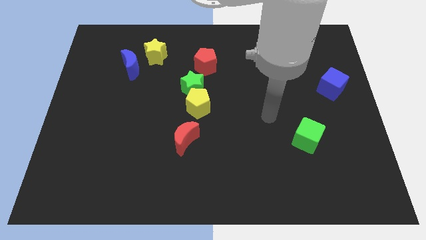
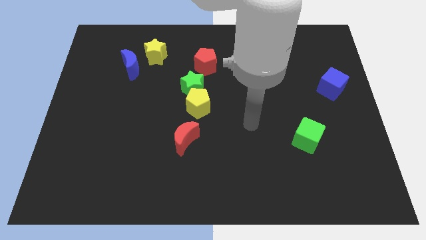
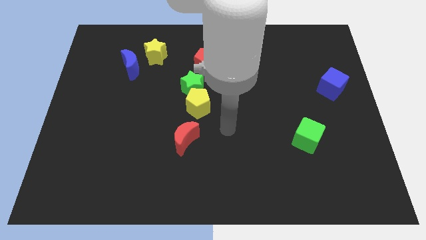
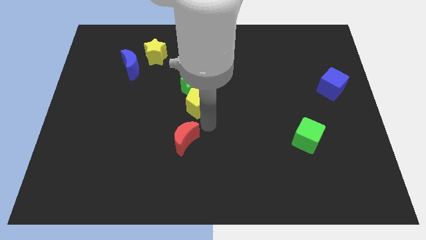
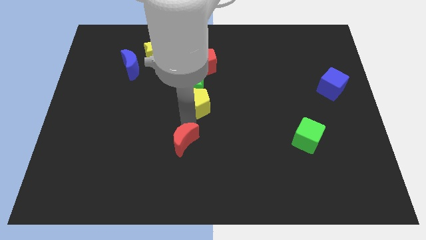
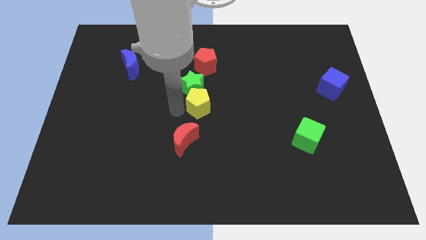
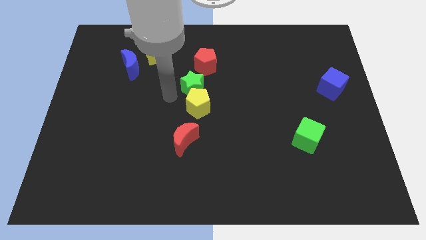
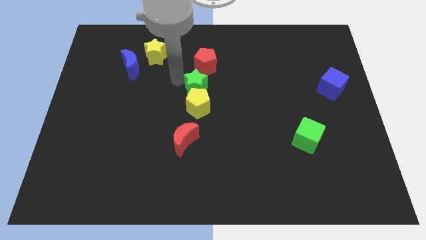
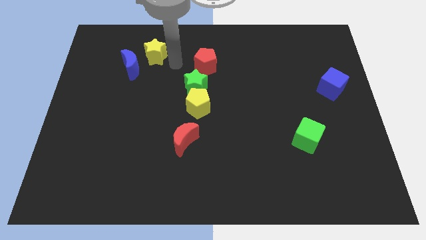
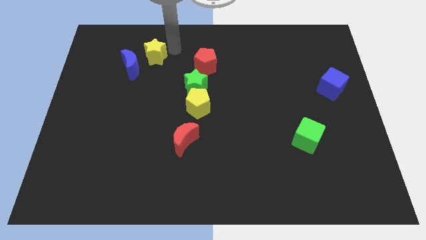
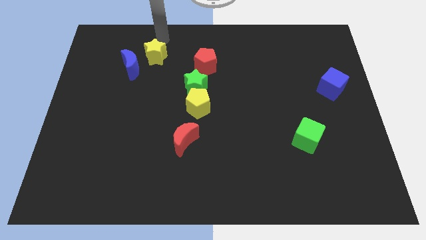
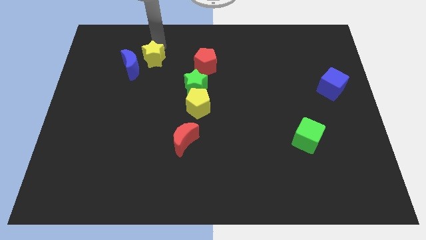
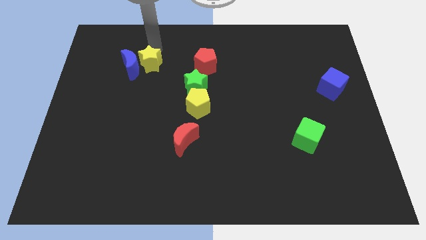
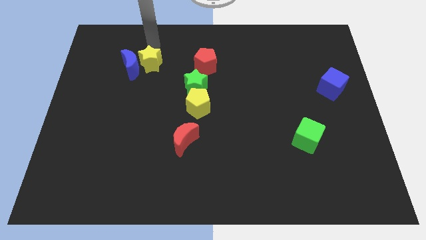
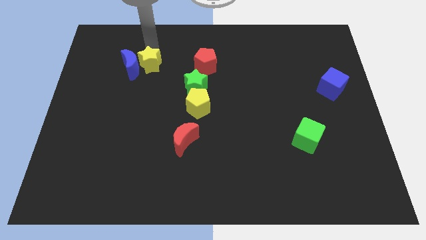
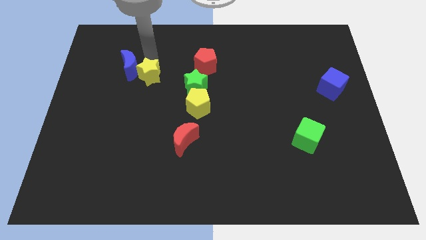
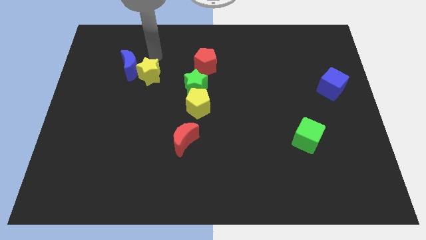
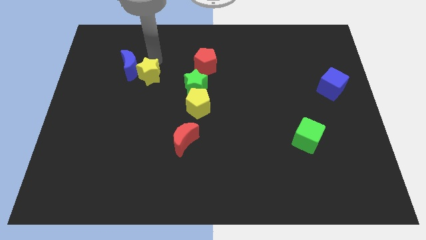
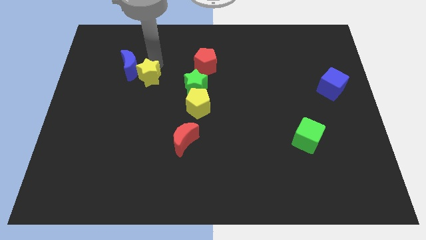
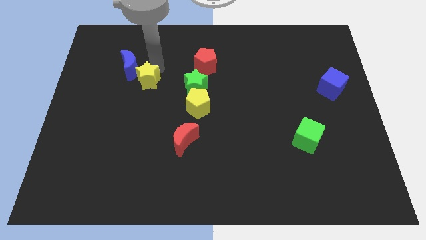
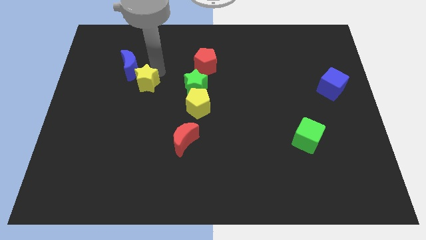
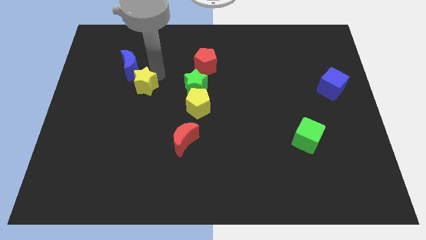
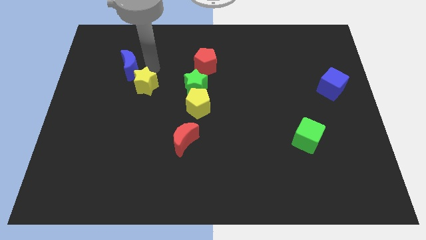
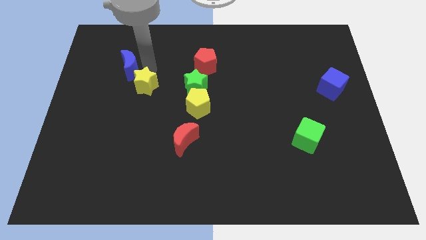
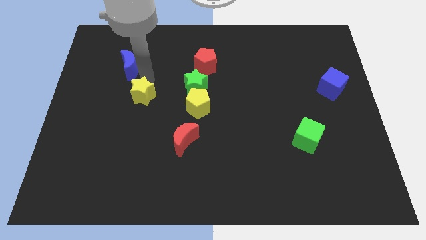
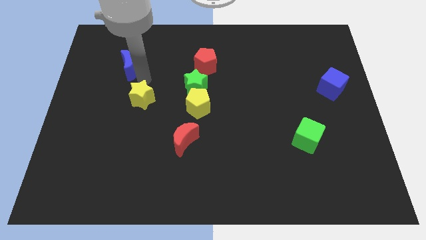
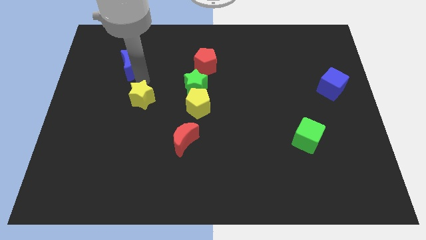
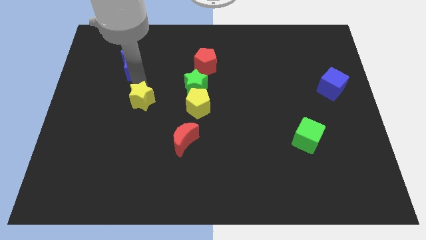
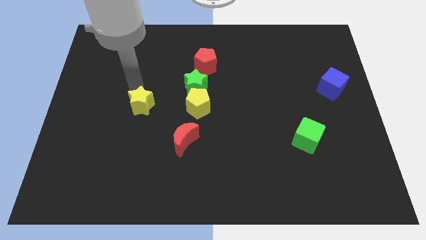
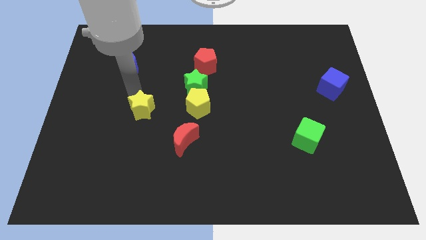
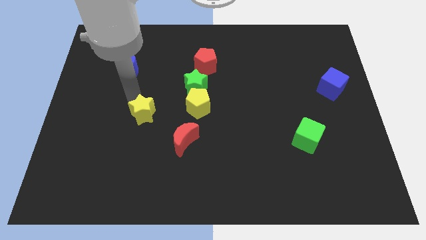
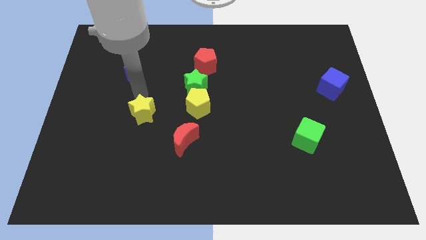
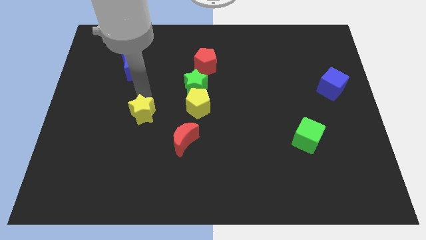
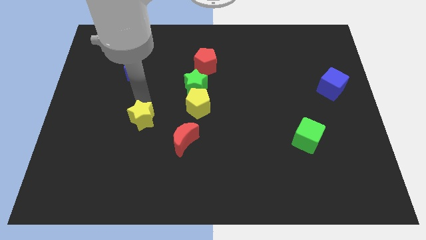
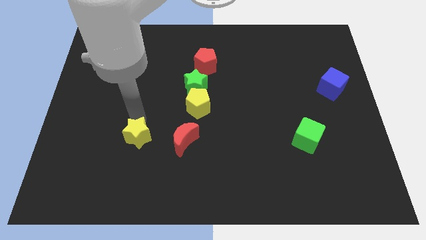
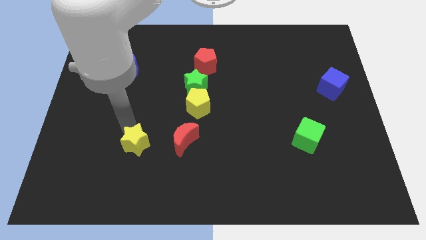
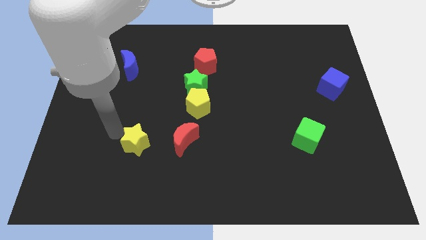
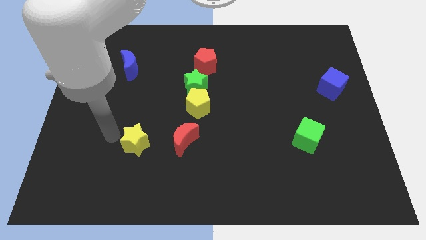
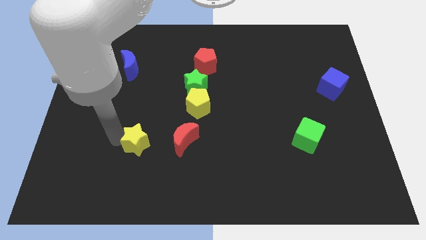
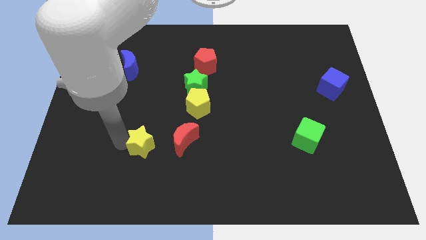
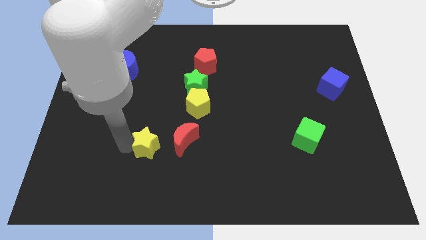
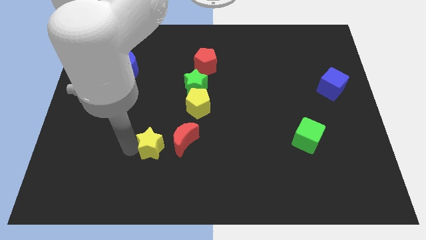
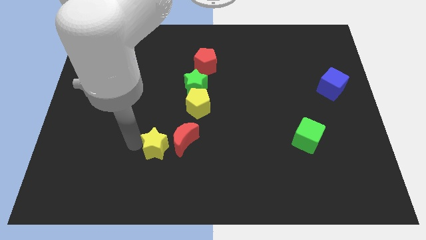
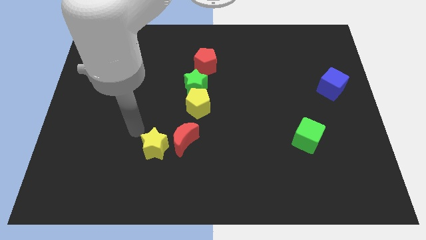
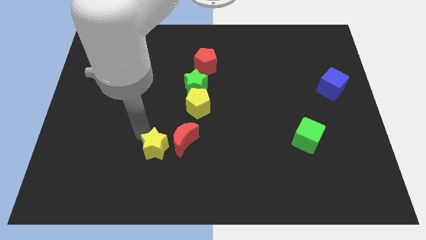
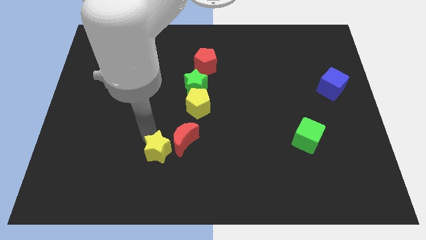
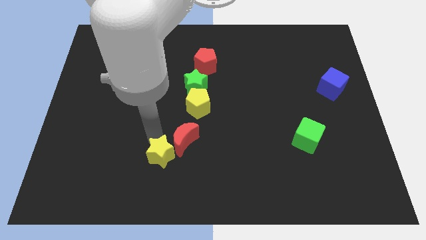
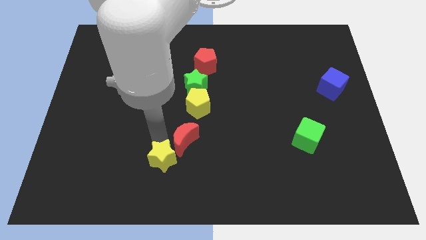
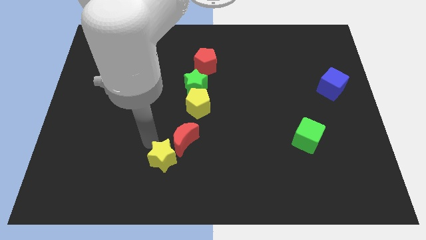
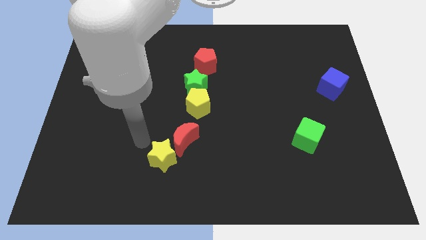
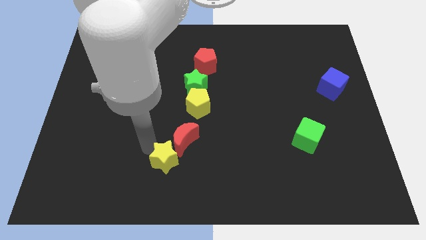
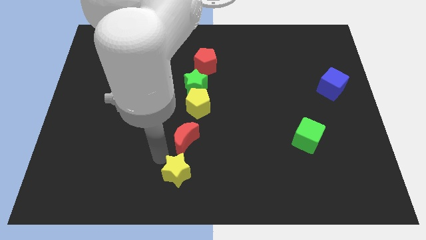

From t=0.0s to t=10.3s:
slide the yellow star to the bottom side

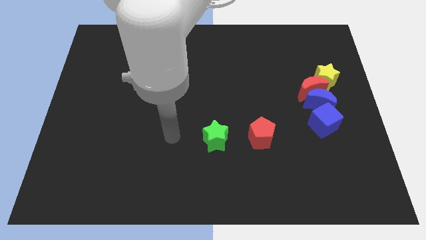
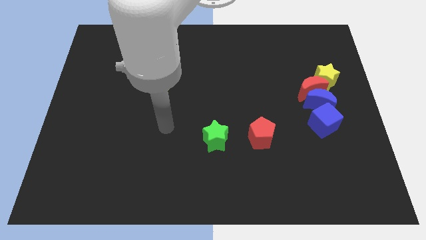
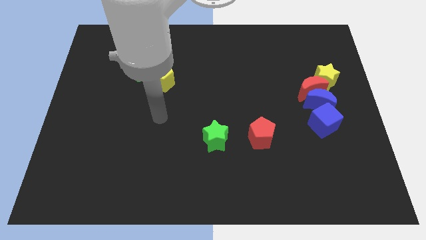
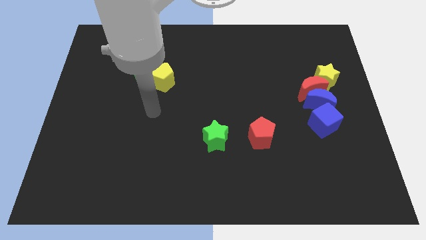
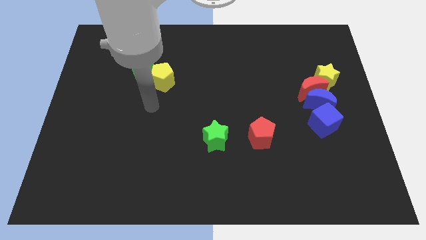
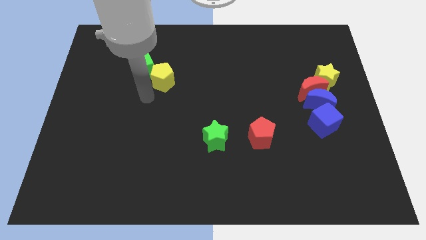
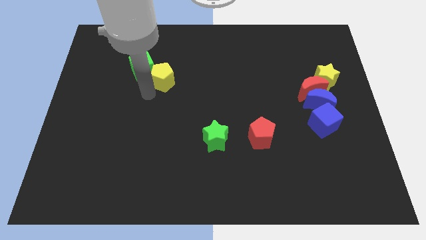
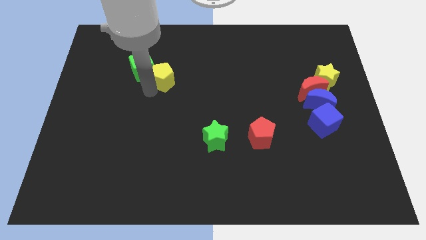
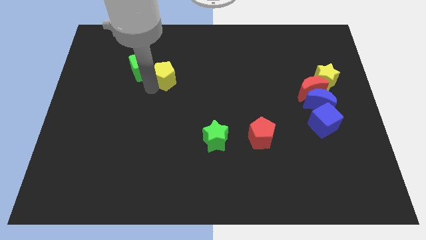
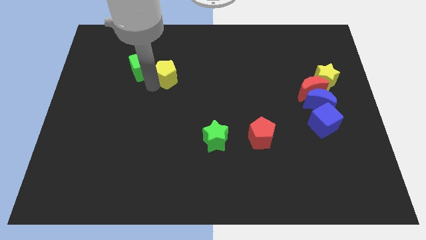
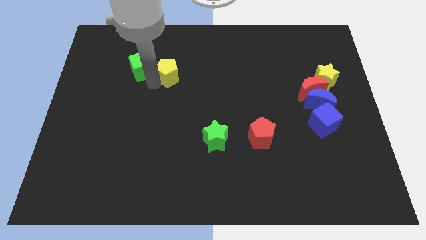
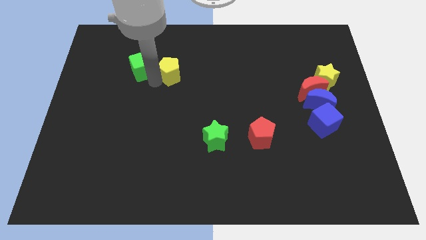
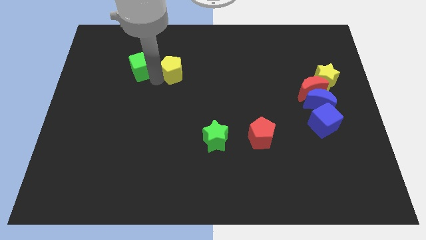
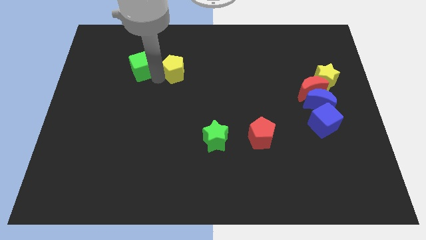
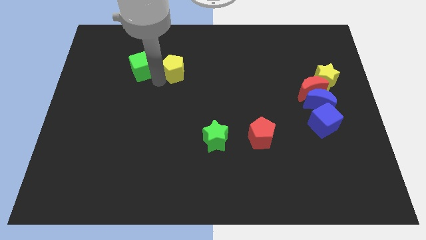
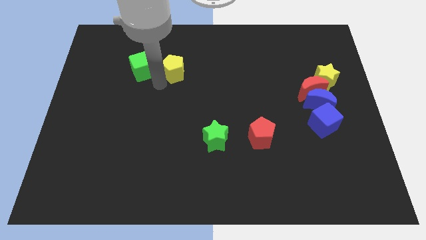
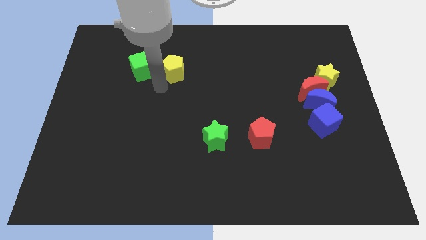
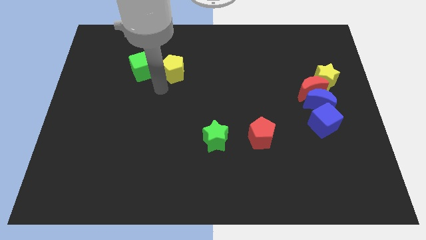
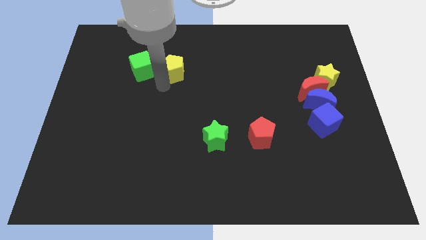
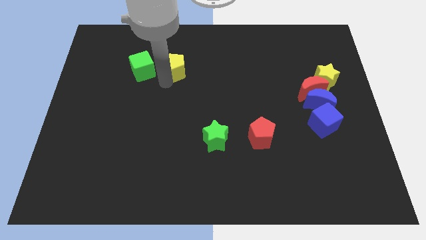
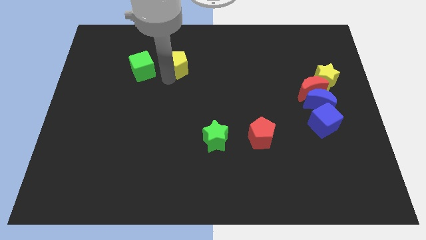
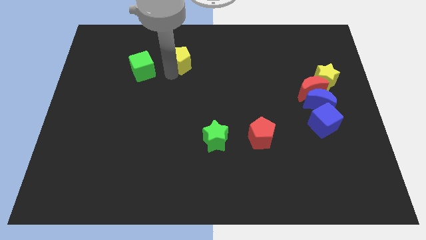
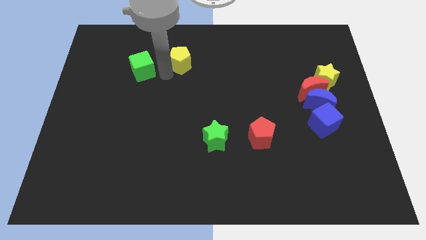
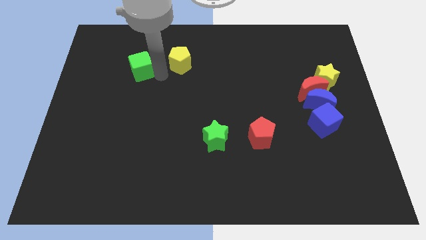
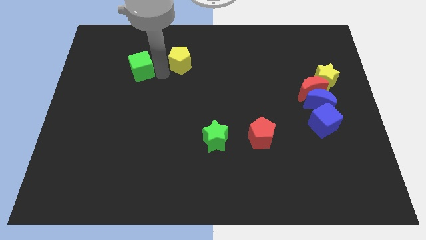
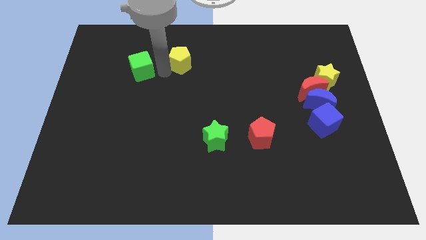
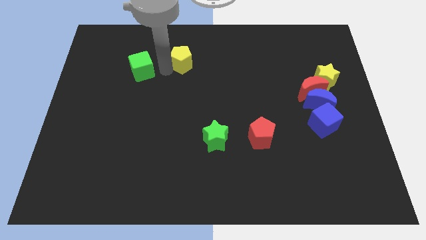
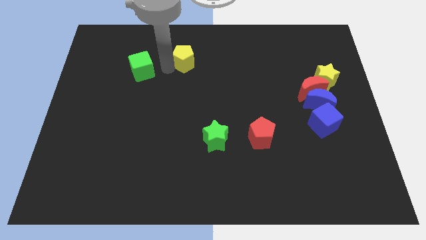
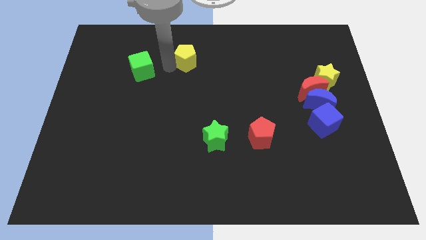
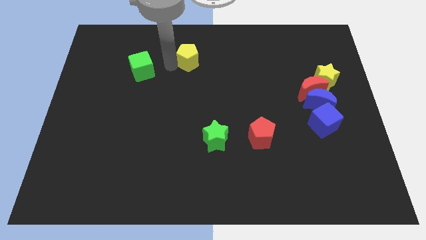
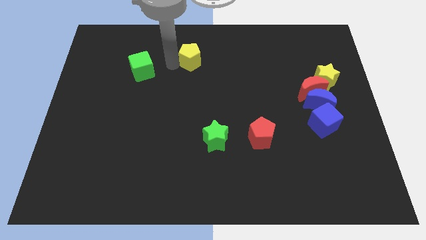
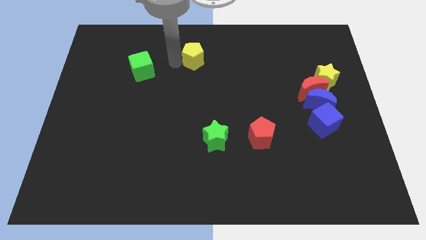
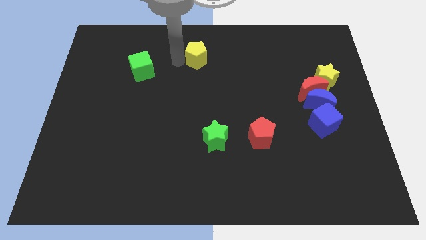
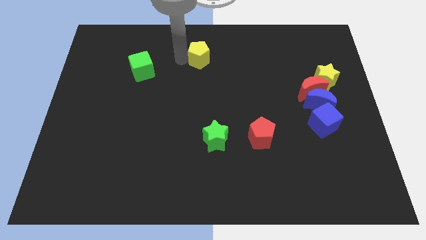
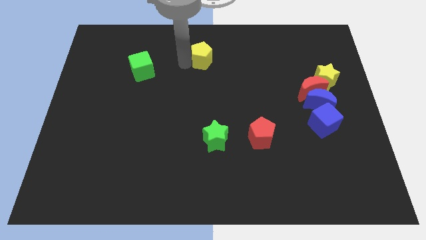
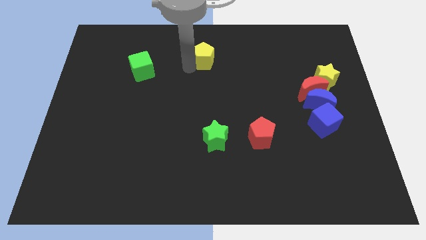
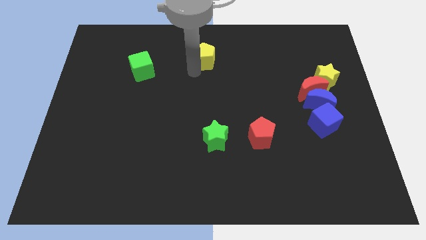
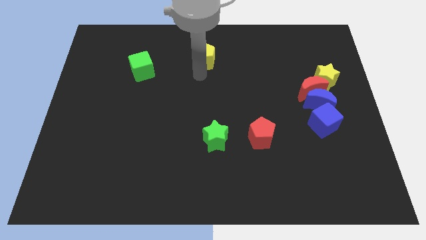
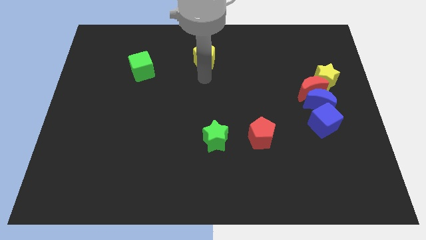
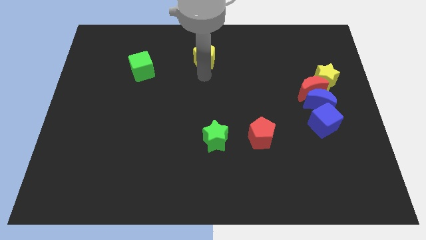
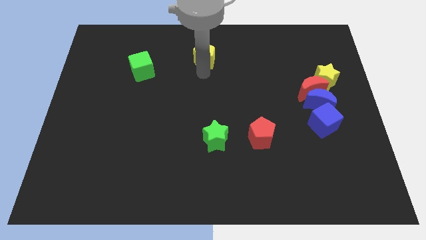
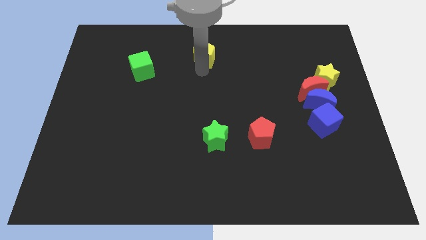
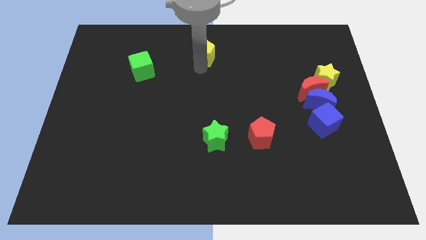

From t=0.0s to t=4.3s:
push the yellow pentagon to the towards your base
